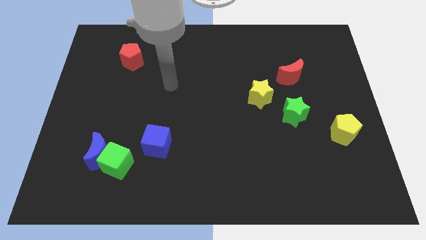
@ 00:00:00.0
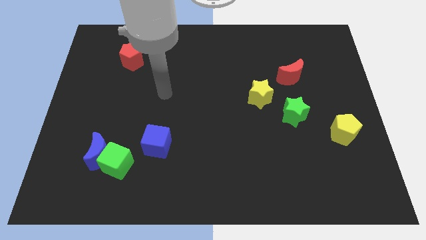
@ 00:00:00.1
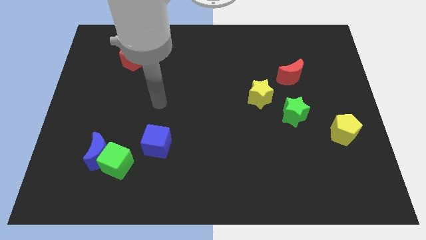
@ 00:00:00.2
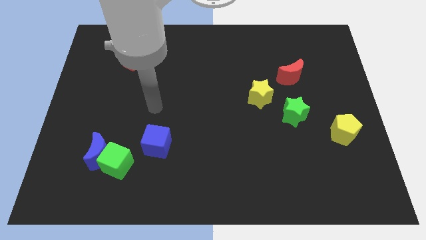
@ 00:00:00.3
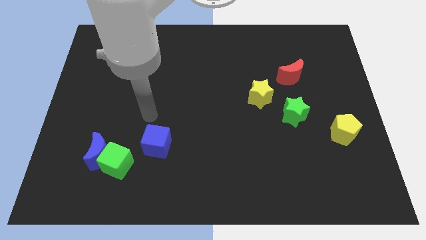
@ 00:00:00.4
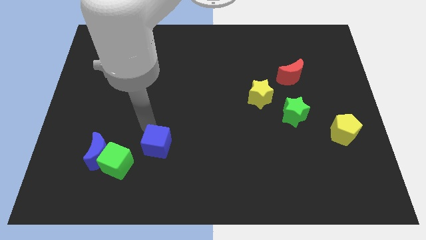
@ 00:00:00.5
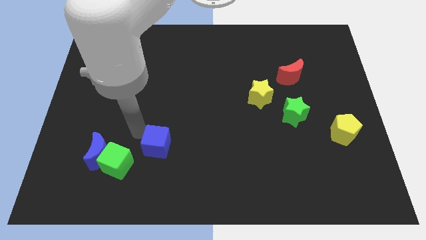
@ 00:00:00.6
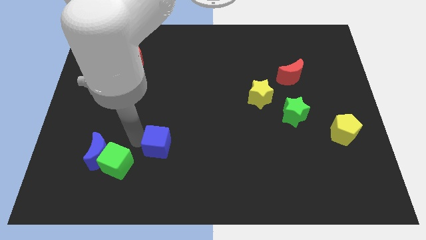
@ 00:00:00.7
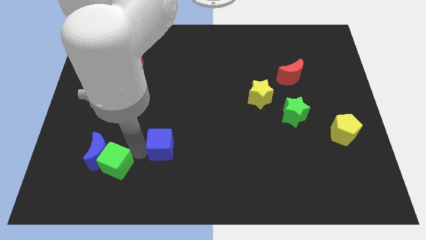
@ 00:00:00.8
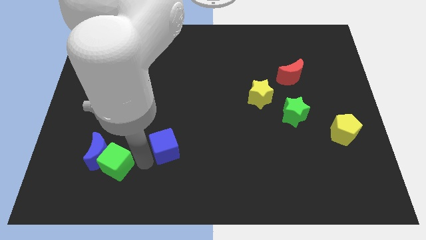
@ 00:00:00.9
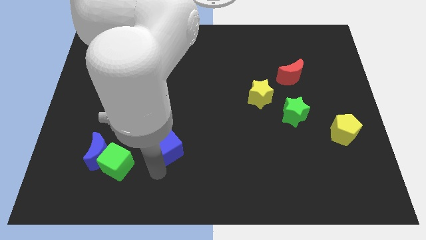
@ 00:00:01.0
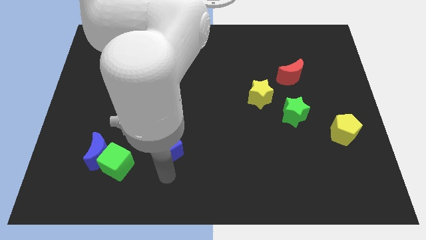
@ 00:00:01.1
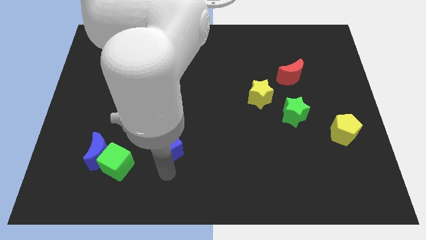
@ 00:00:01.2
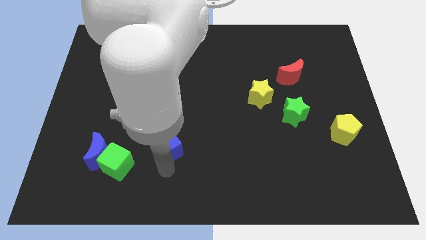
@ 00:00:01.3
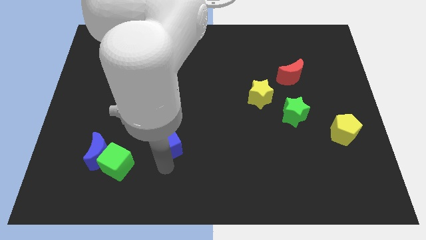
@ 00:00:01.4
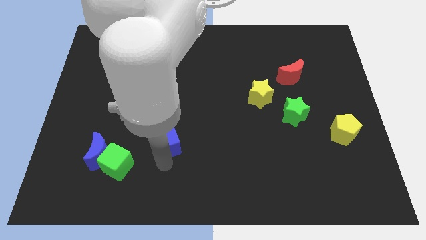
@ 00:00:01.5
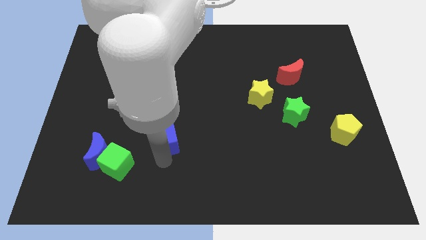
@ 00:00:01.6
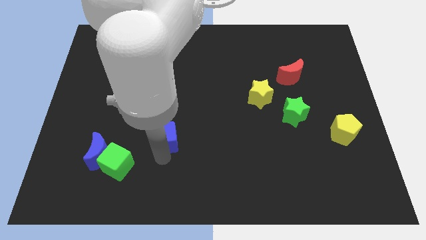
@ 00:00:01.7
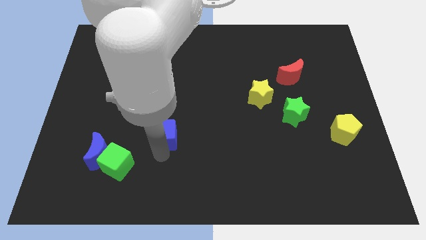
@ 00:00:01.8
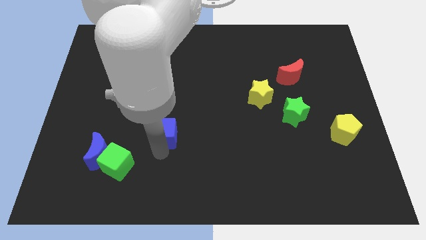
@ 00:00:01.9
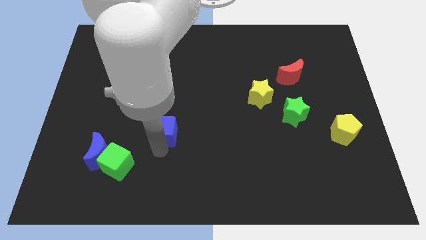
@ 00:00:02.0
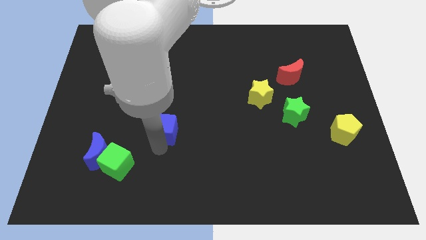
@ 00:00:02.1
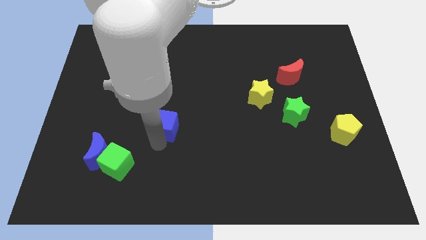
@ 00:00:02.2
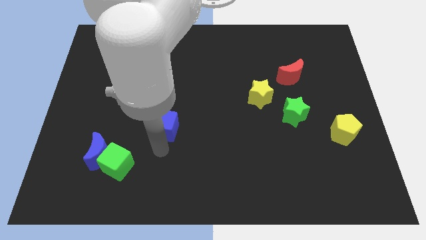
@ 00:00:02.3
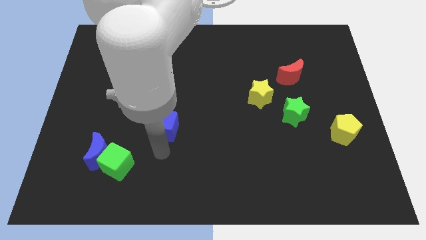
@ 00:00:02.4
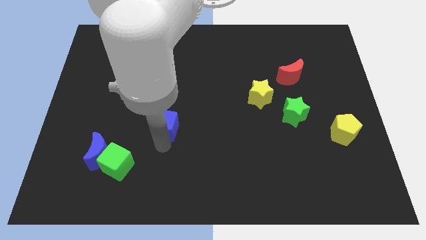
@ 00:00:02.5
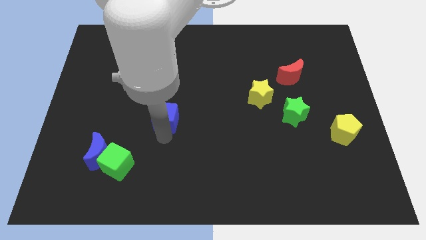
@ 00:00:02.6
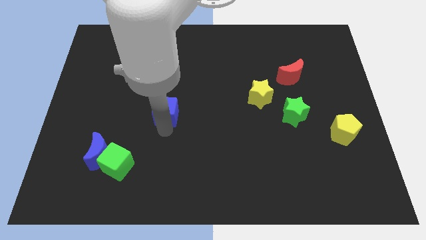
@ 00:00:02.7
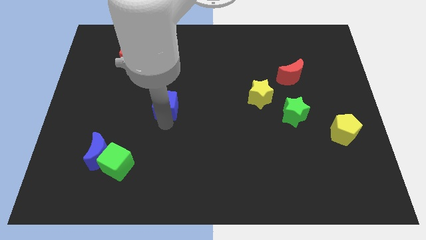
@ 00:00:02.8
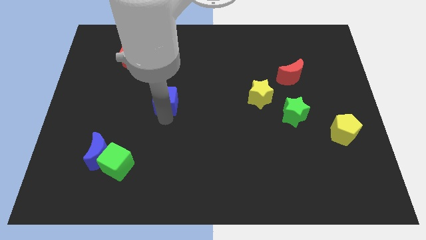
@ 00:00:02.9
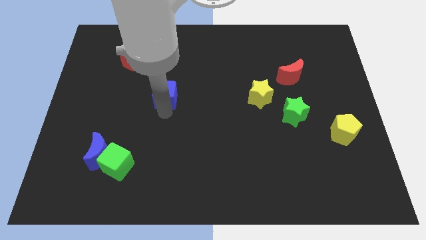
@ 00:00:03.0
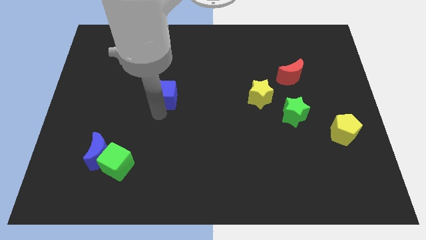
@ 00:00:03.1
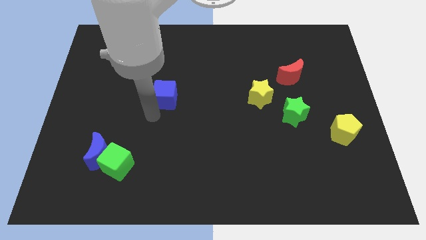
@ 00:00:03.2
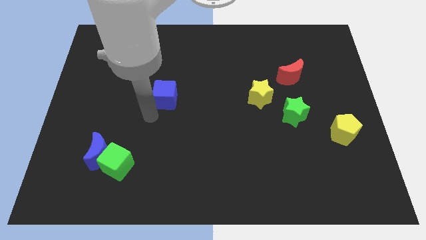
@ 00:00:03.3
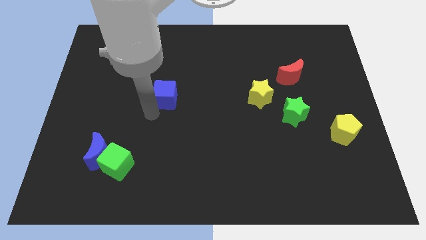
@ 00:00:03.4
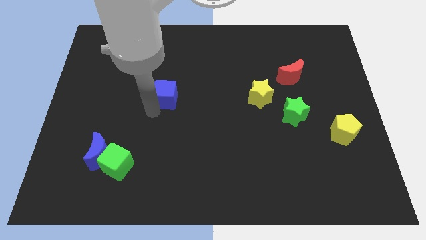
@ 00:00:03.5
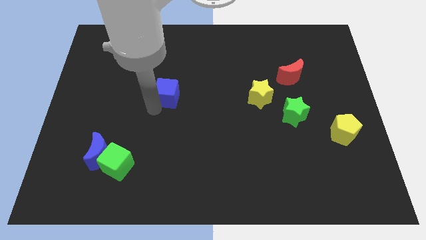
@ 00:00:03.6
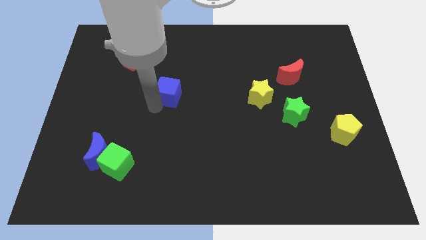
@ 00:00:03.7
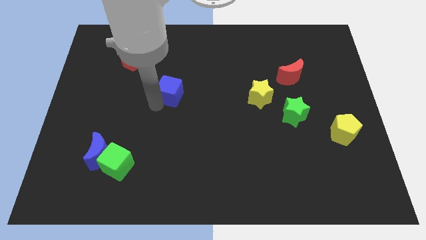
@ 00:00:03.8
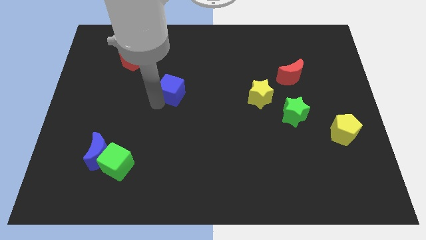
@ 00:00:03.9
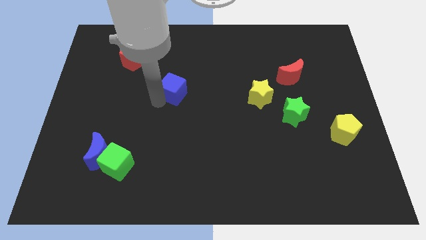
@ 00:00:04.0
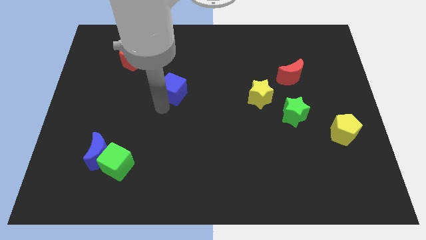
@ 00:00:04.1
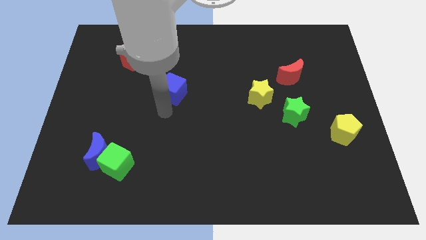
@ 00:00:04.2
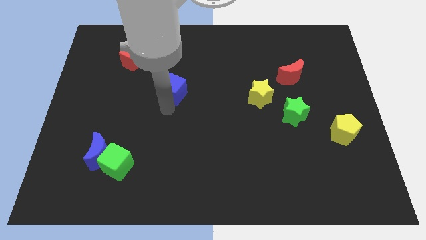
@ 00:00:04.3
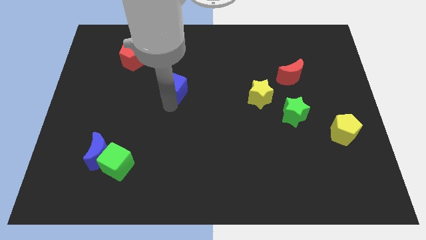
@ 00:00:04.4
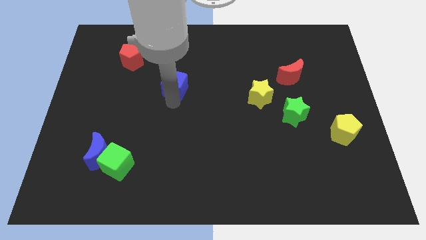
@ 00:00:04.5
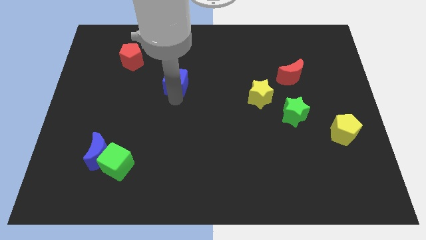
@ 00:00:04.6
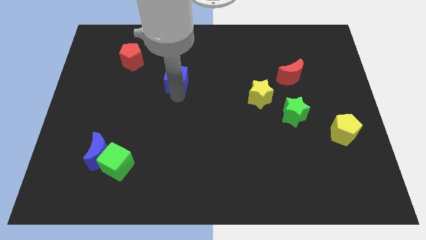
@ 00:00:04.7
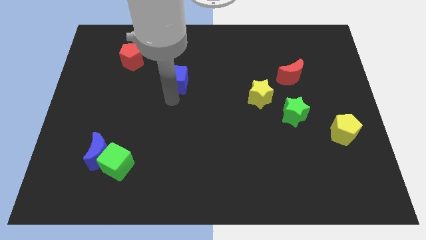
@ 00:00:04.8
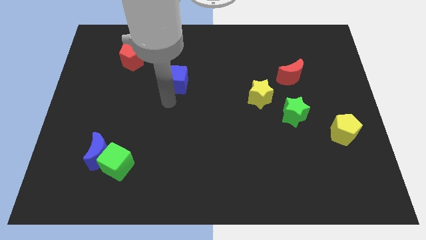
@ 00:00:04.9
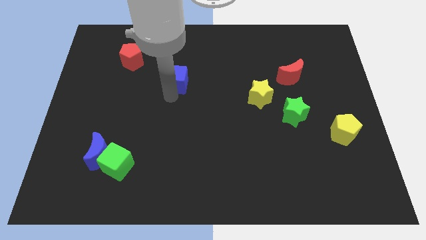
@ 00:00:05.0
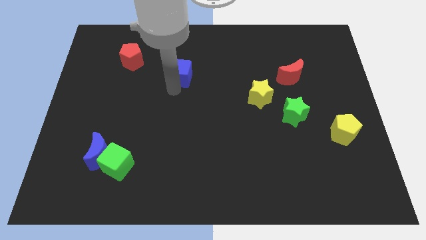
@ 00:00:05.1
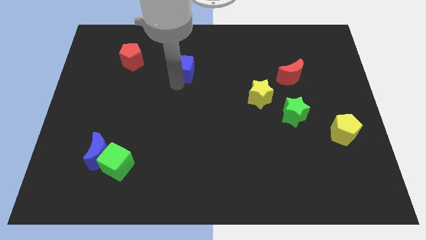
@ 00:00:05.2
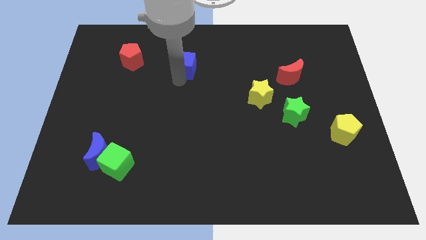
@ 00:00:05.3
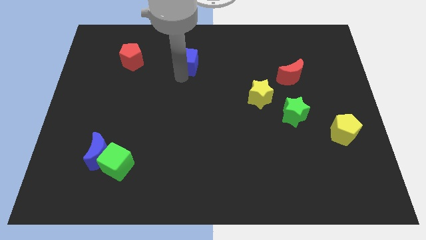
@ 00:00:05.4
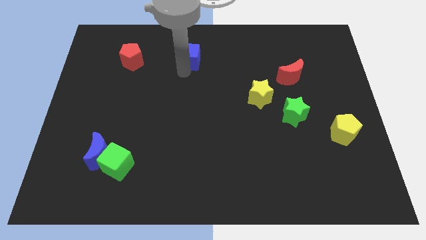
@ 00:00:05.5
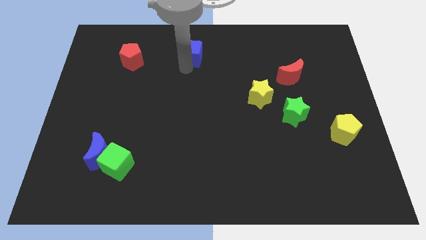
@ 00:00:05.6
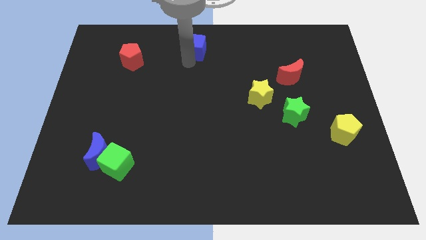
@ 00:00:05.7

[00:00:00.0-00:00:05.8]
move the blue cube to the towards your base
